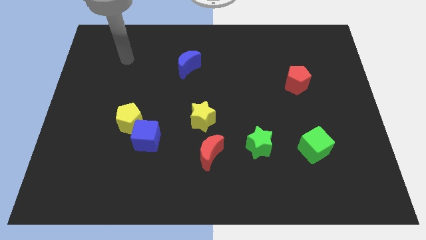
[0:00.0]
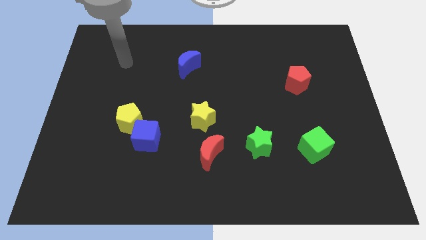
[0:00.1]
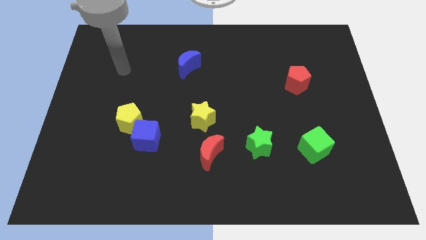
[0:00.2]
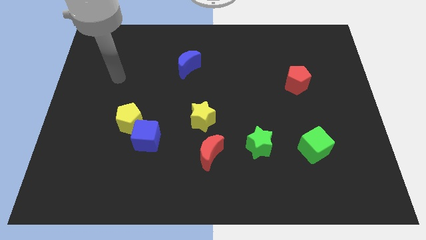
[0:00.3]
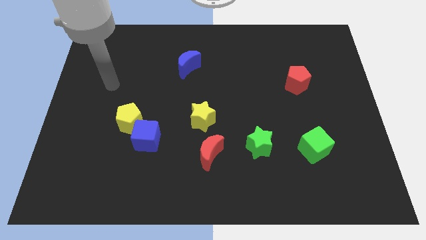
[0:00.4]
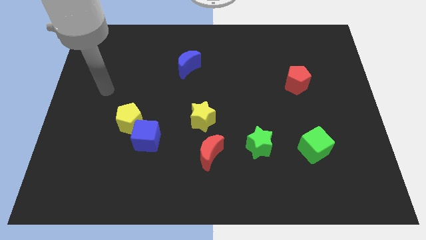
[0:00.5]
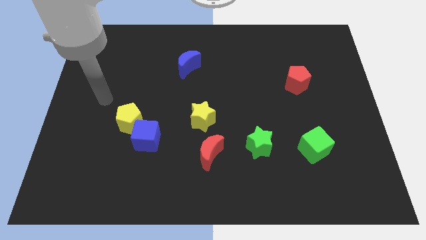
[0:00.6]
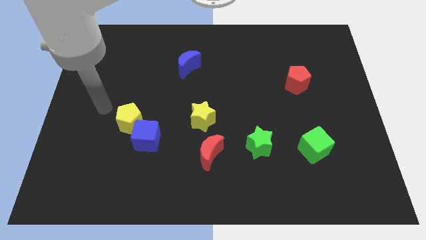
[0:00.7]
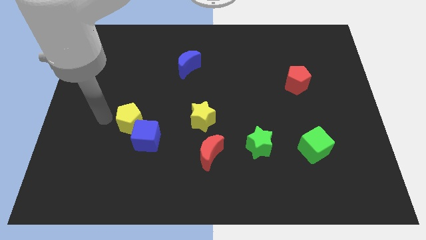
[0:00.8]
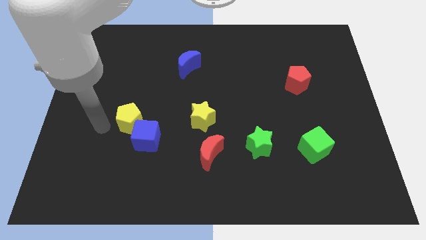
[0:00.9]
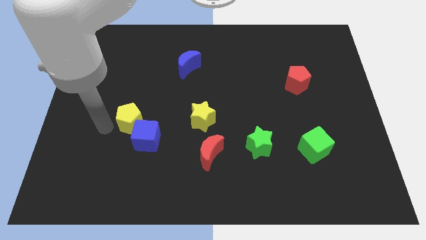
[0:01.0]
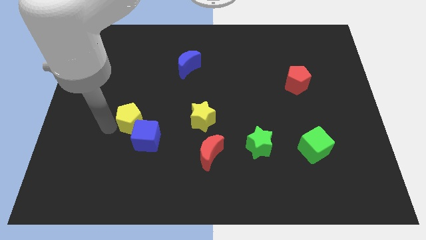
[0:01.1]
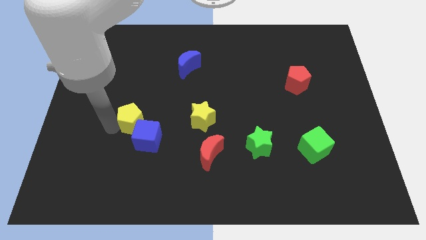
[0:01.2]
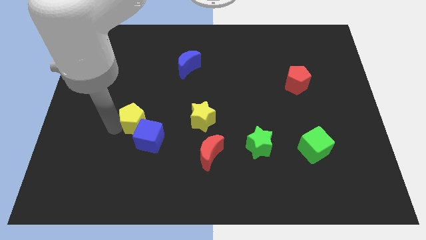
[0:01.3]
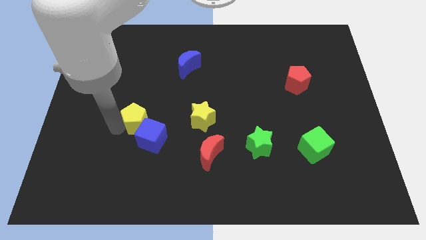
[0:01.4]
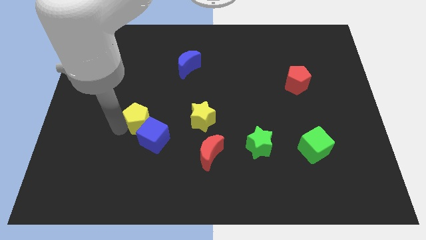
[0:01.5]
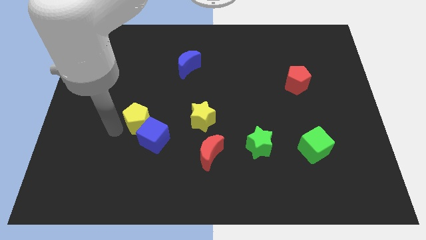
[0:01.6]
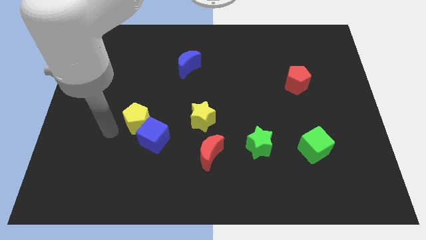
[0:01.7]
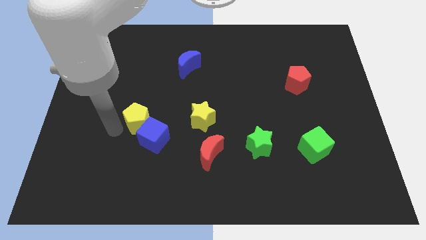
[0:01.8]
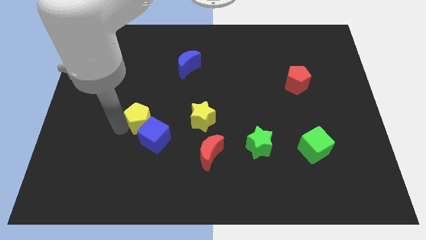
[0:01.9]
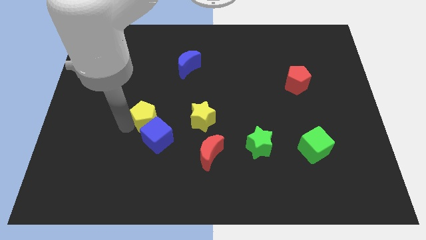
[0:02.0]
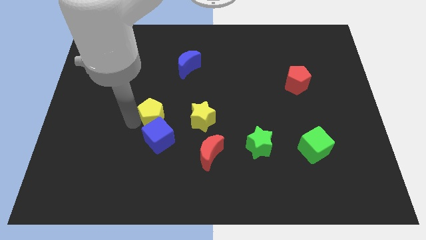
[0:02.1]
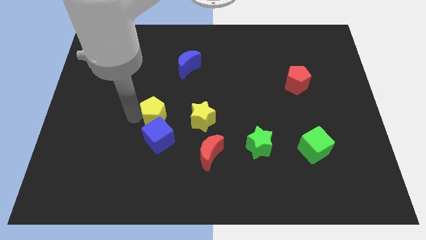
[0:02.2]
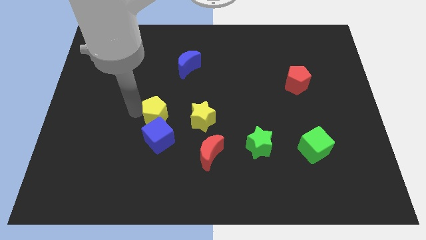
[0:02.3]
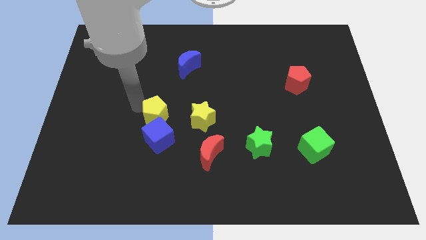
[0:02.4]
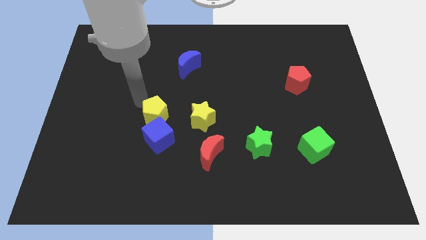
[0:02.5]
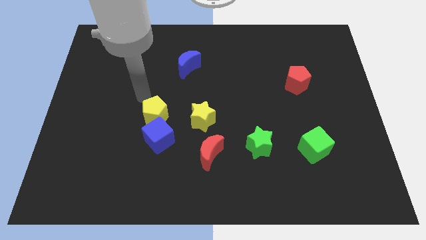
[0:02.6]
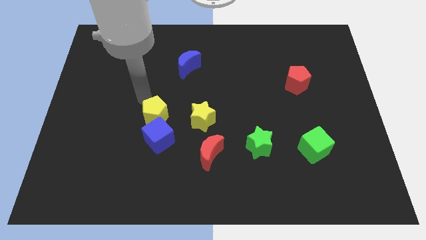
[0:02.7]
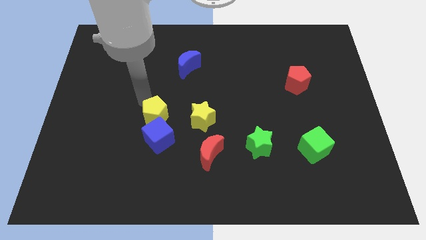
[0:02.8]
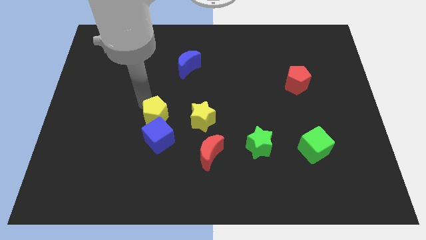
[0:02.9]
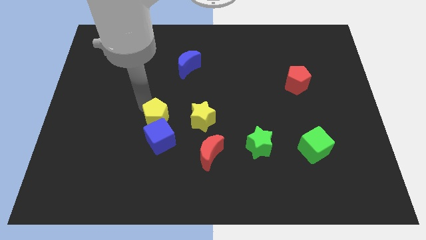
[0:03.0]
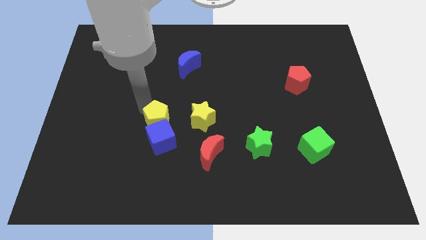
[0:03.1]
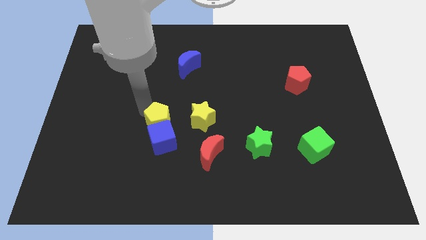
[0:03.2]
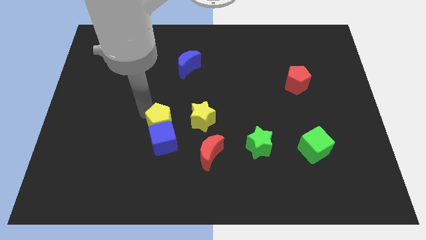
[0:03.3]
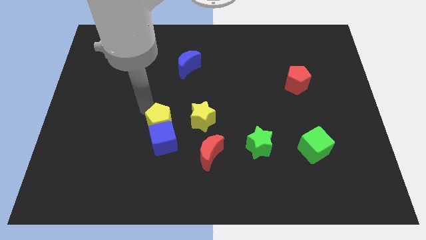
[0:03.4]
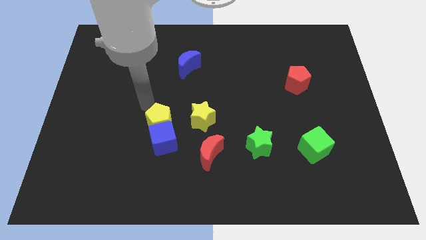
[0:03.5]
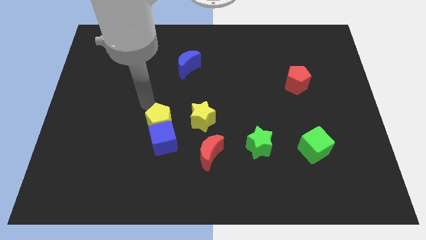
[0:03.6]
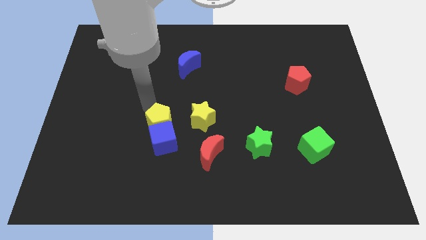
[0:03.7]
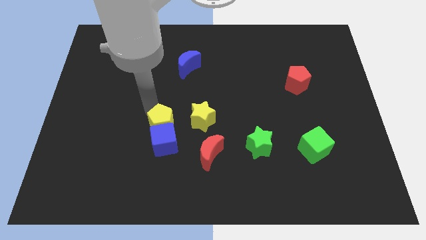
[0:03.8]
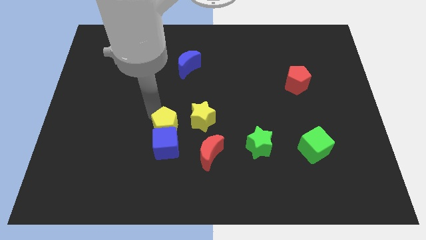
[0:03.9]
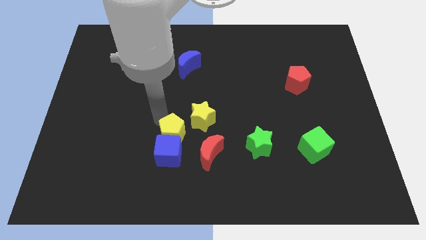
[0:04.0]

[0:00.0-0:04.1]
slightly push the yellow pentagon diagonally down and right

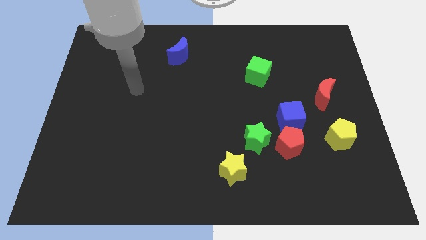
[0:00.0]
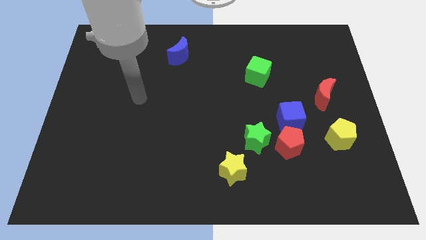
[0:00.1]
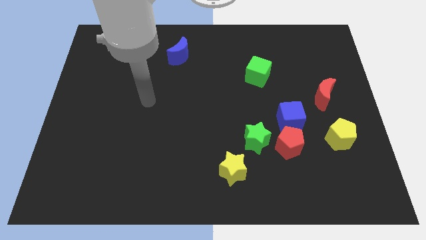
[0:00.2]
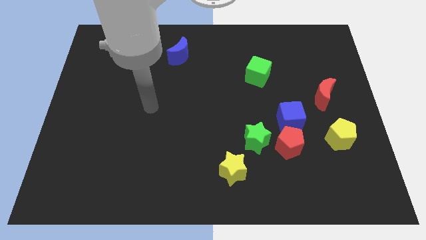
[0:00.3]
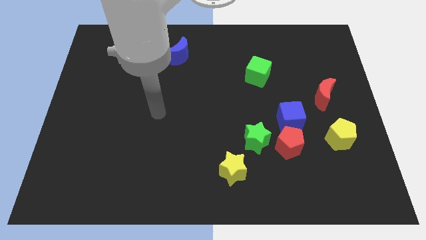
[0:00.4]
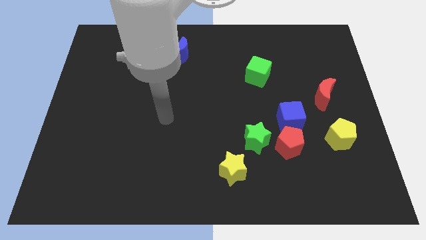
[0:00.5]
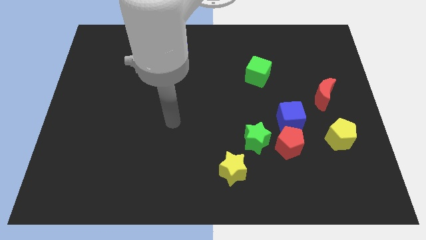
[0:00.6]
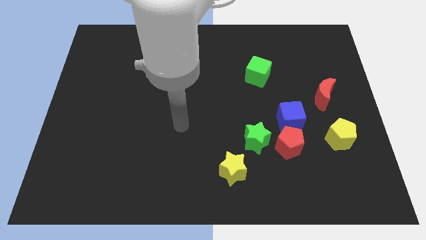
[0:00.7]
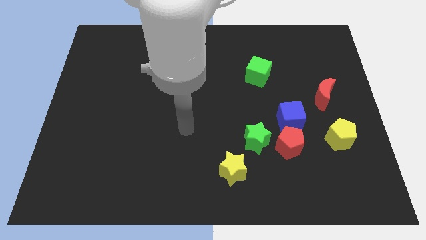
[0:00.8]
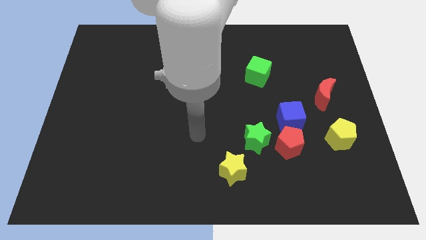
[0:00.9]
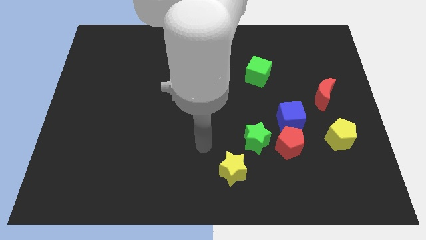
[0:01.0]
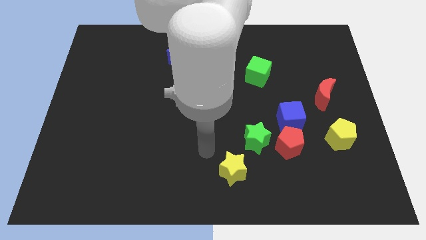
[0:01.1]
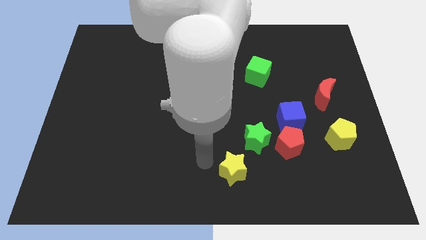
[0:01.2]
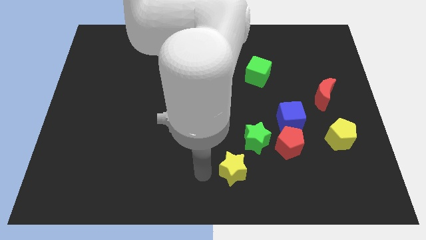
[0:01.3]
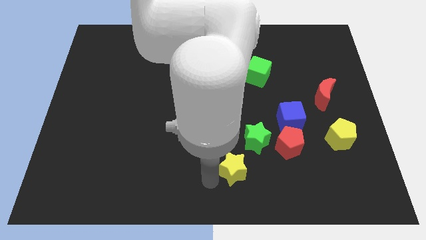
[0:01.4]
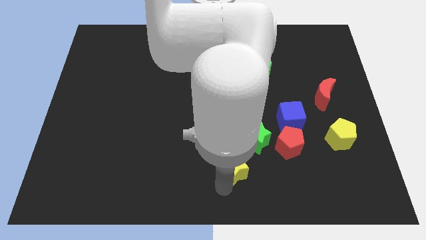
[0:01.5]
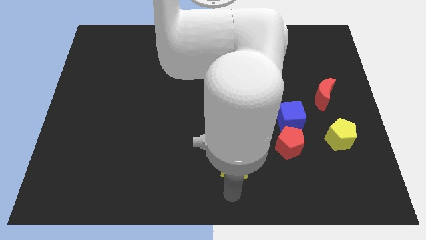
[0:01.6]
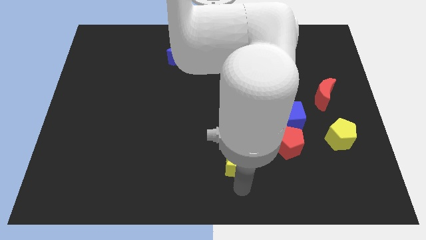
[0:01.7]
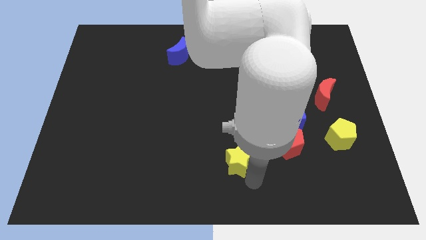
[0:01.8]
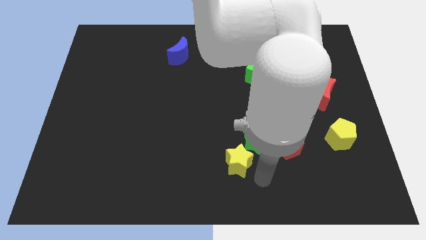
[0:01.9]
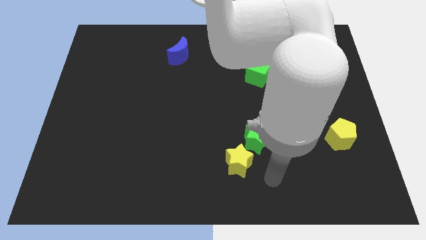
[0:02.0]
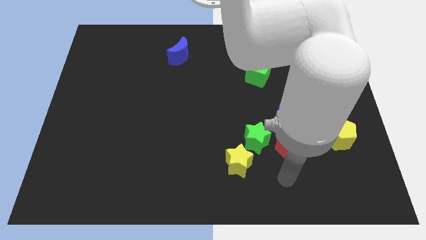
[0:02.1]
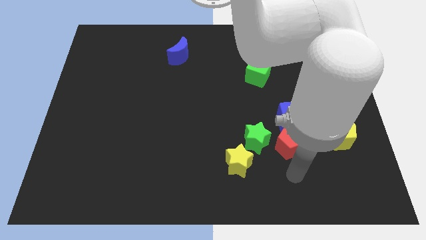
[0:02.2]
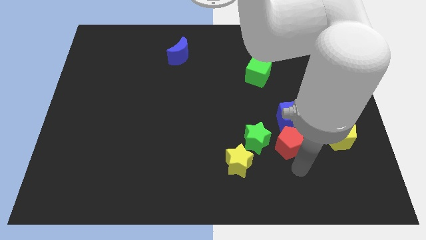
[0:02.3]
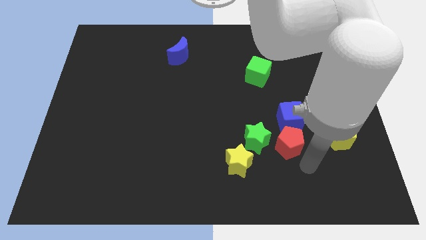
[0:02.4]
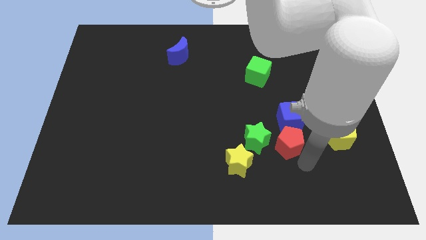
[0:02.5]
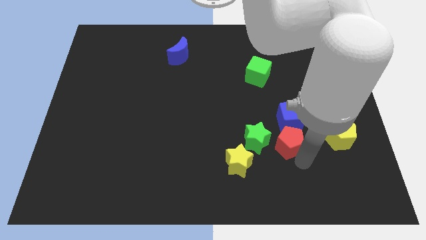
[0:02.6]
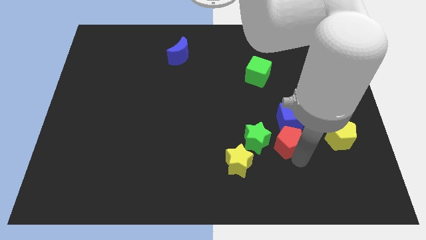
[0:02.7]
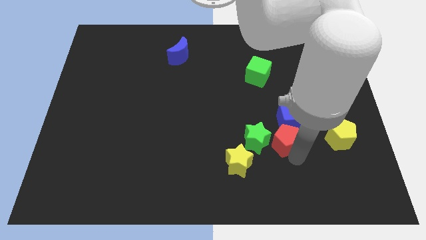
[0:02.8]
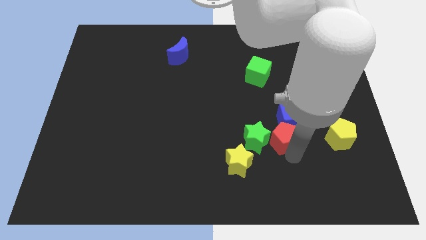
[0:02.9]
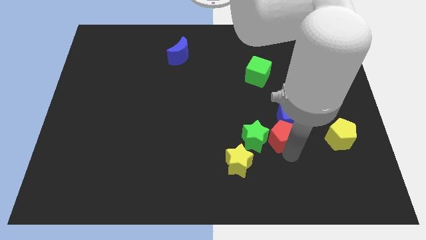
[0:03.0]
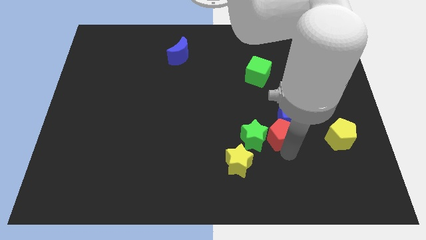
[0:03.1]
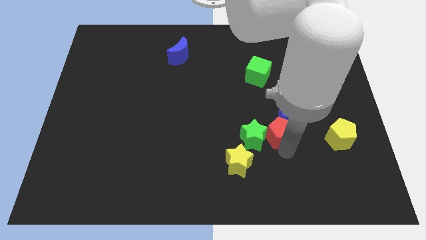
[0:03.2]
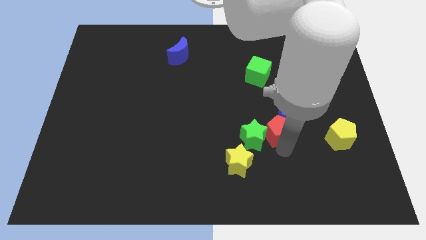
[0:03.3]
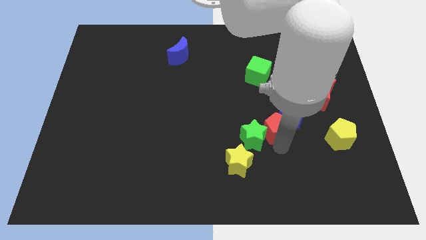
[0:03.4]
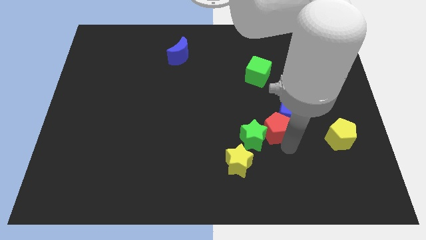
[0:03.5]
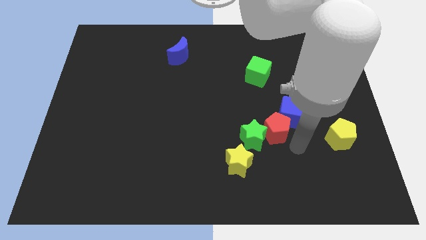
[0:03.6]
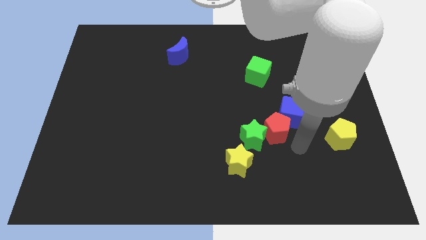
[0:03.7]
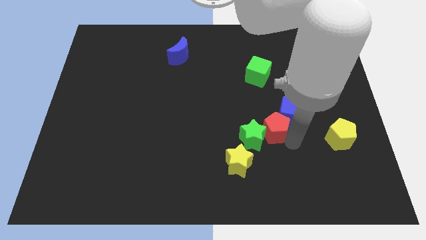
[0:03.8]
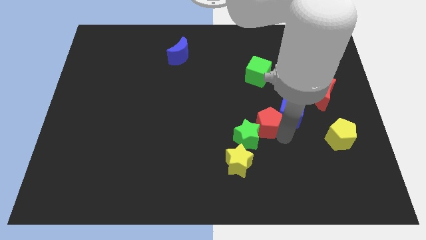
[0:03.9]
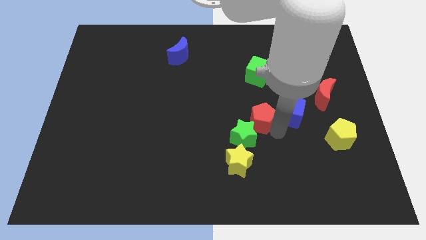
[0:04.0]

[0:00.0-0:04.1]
slightly push the red pentagon diagonally up and to the left
